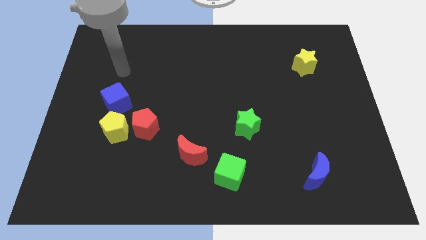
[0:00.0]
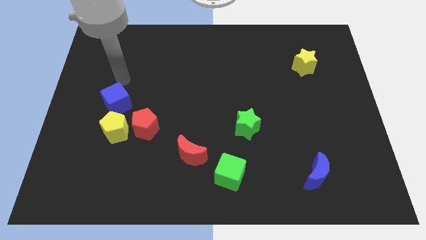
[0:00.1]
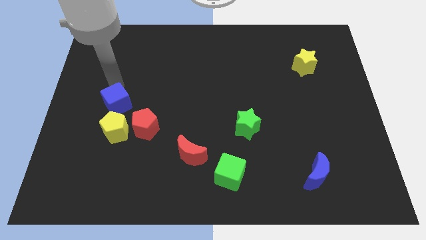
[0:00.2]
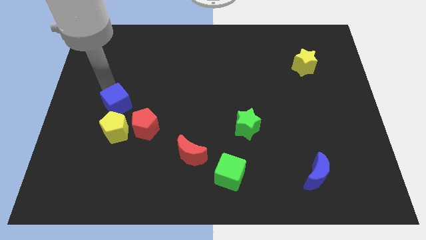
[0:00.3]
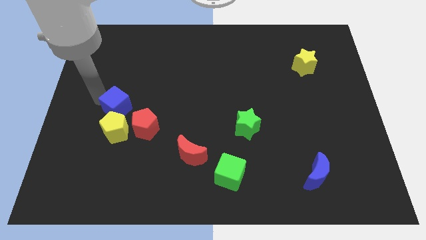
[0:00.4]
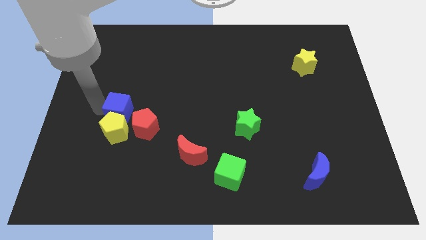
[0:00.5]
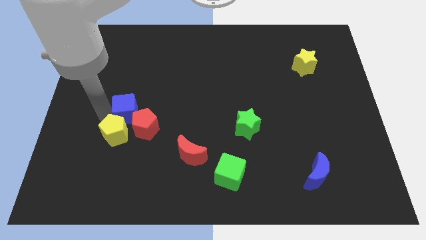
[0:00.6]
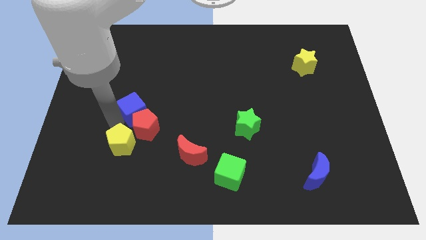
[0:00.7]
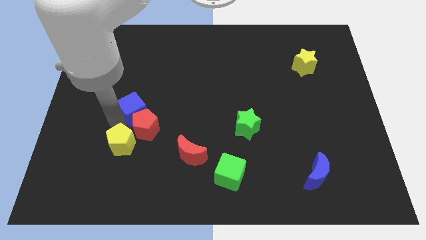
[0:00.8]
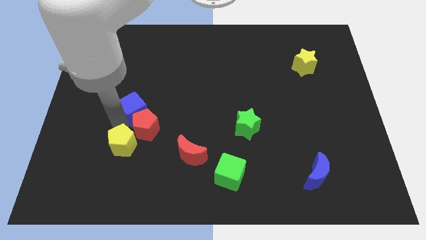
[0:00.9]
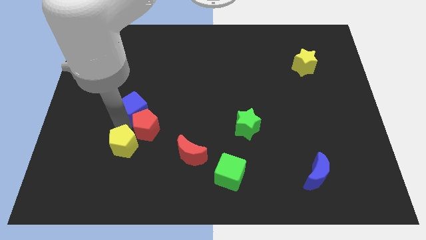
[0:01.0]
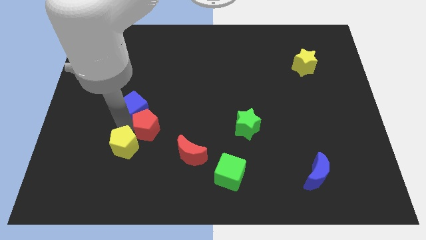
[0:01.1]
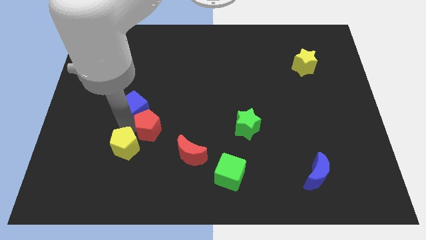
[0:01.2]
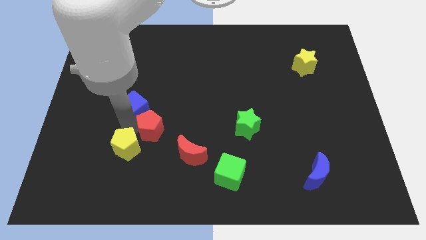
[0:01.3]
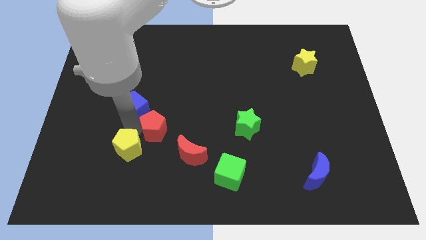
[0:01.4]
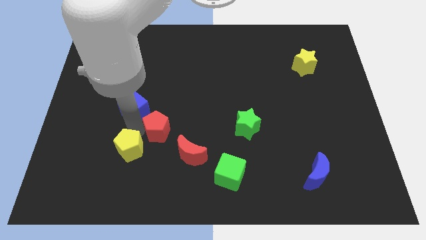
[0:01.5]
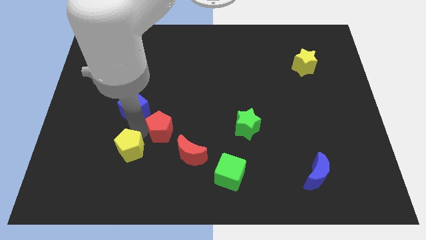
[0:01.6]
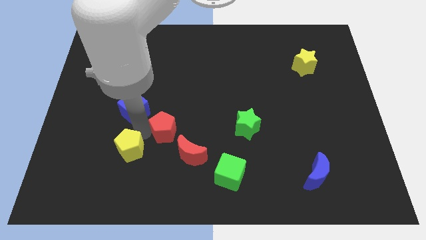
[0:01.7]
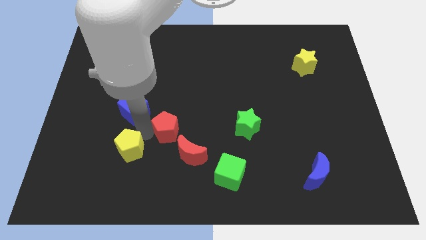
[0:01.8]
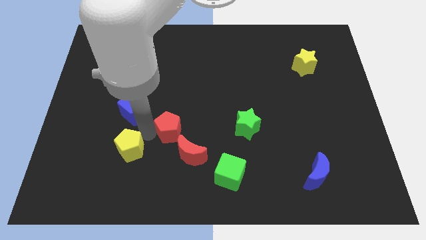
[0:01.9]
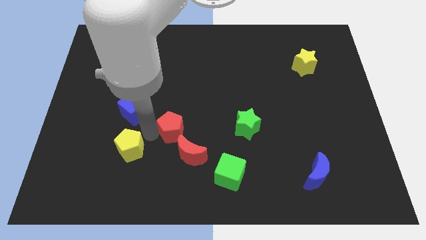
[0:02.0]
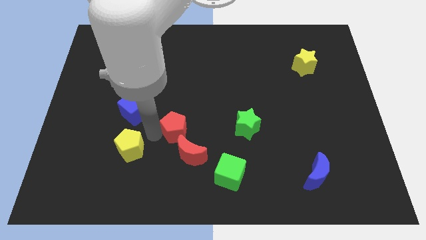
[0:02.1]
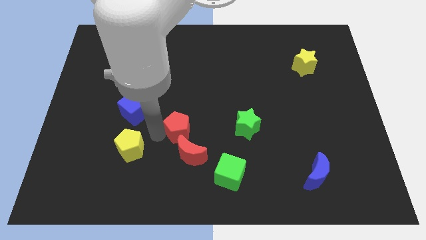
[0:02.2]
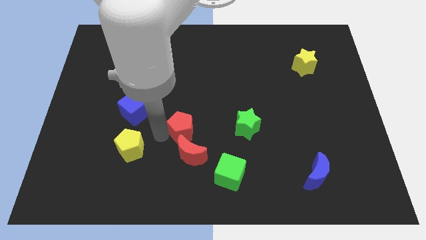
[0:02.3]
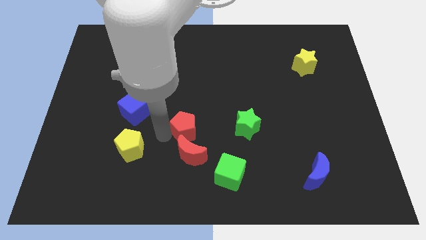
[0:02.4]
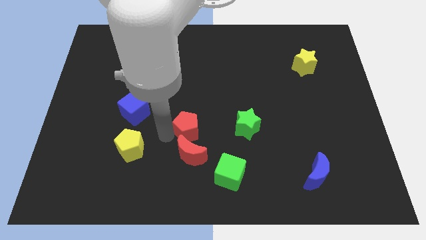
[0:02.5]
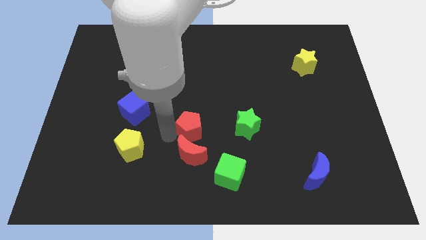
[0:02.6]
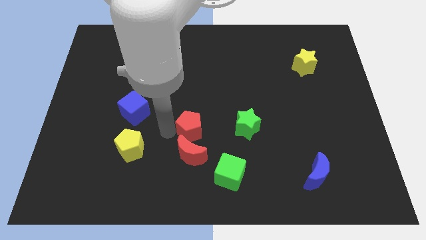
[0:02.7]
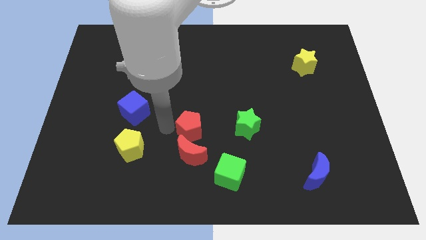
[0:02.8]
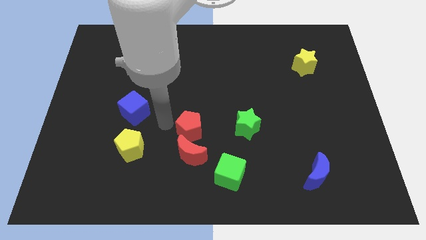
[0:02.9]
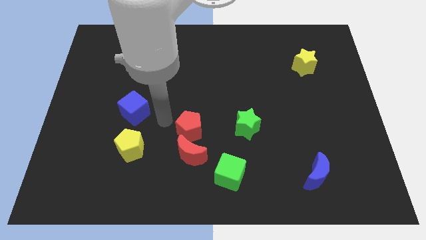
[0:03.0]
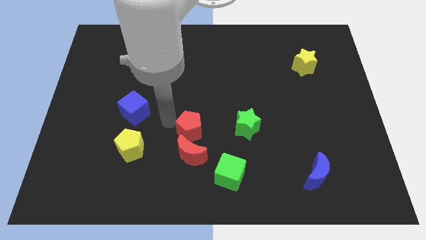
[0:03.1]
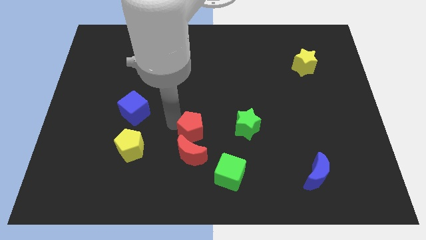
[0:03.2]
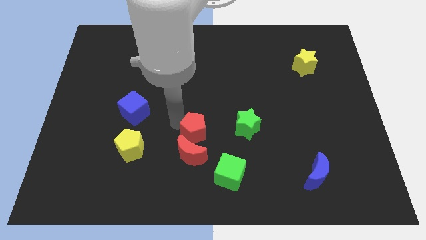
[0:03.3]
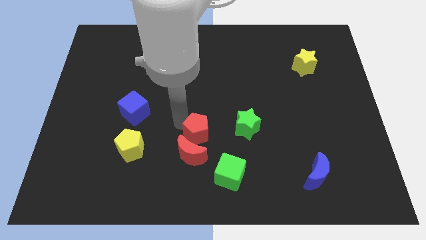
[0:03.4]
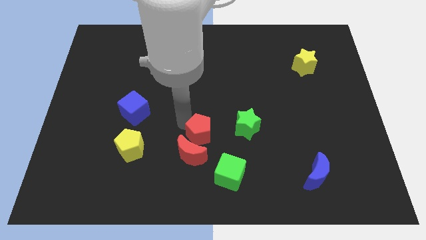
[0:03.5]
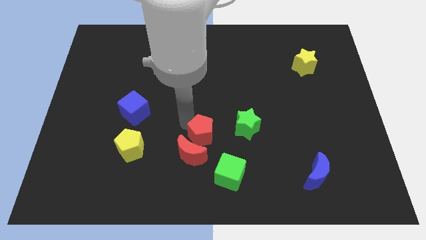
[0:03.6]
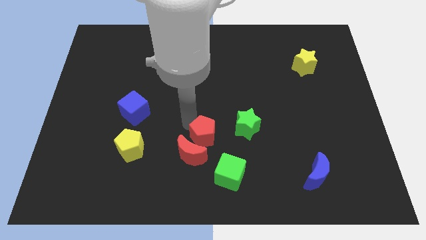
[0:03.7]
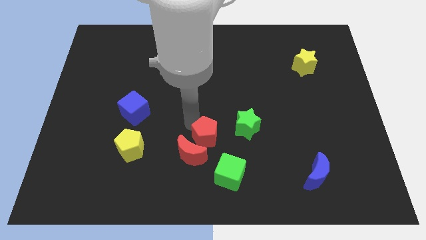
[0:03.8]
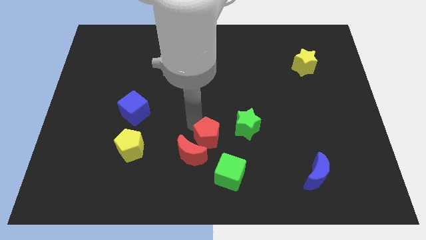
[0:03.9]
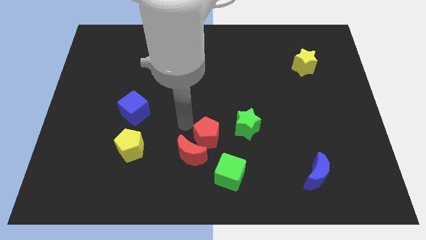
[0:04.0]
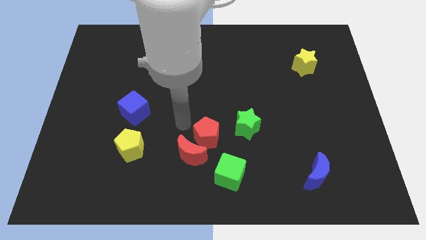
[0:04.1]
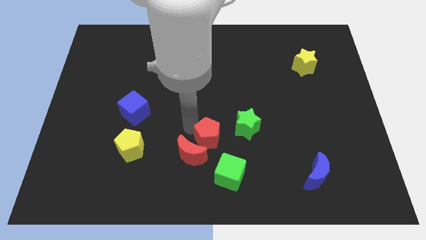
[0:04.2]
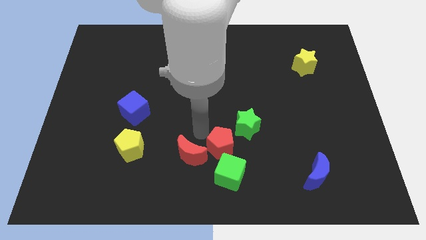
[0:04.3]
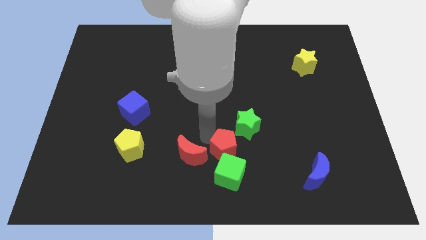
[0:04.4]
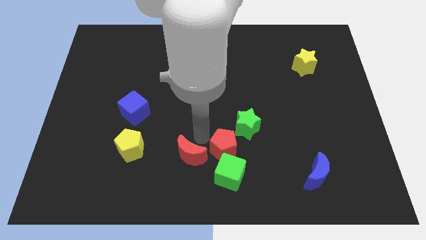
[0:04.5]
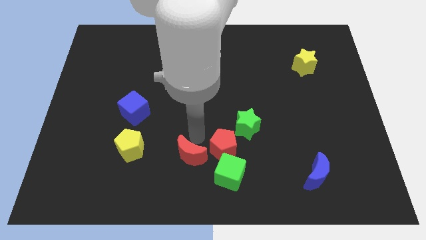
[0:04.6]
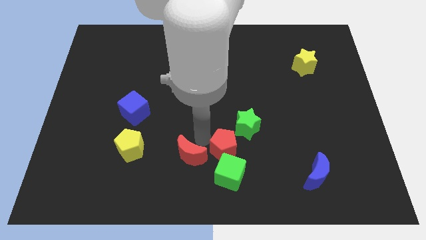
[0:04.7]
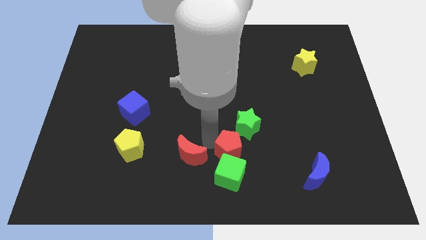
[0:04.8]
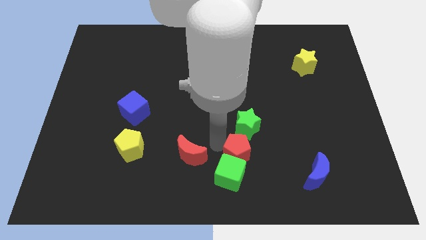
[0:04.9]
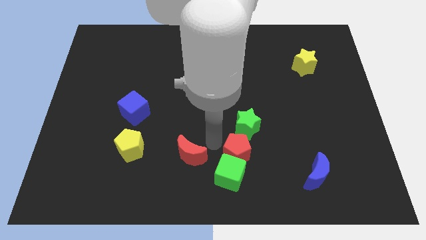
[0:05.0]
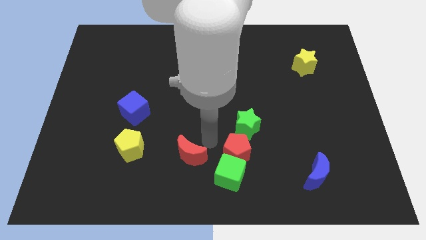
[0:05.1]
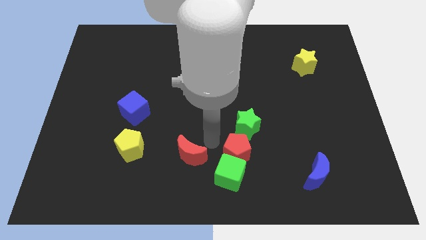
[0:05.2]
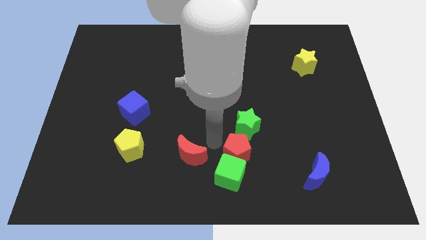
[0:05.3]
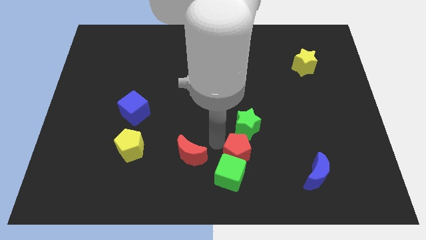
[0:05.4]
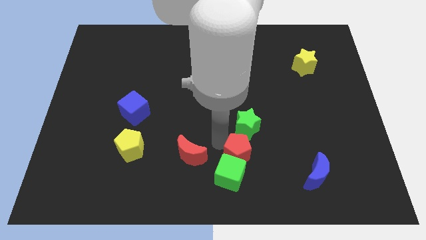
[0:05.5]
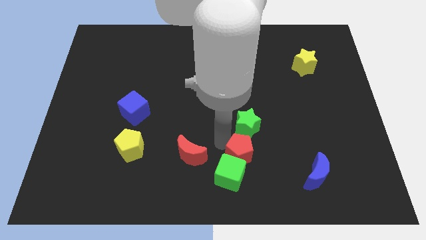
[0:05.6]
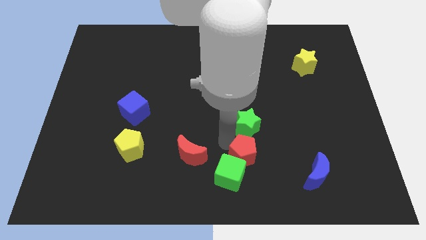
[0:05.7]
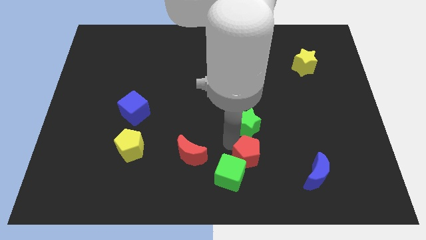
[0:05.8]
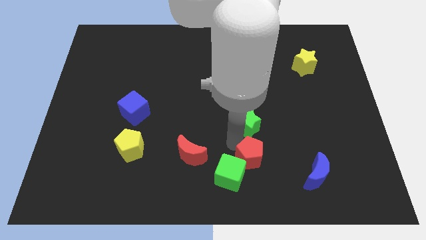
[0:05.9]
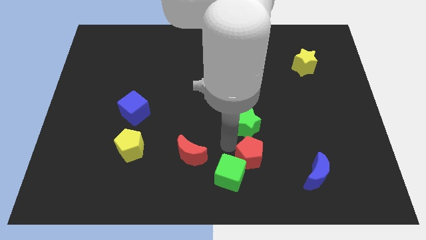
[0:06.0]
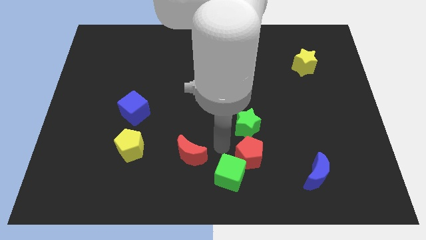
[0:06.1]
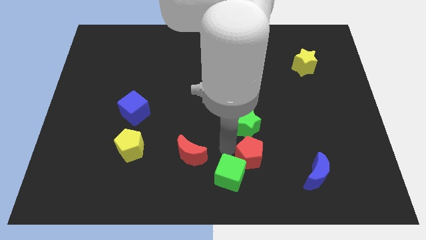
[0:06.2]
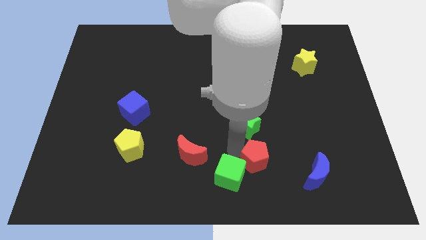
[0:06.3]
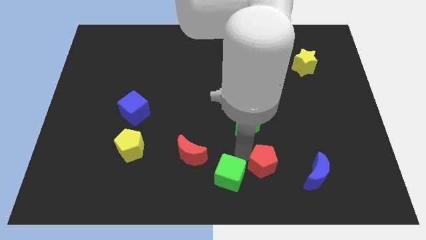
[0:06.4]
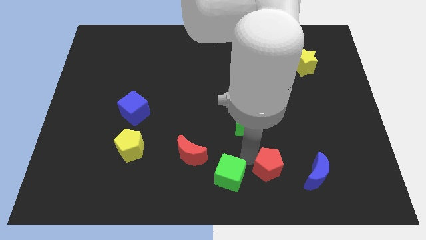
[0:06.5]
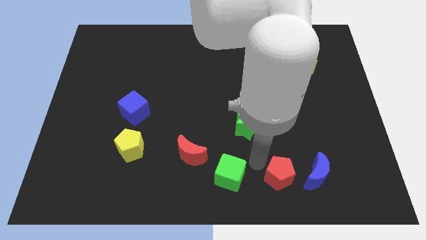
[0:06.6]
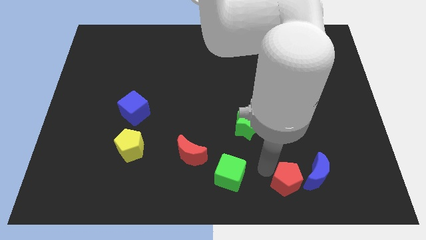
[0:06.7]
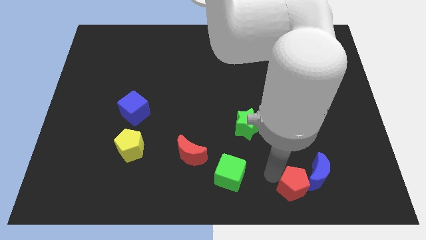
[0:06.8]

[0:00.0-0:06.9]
move the red pentagon next to the blue moon

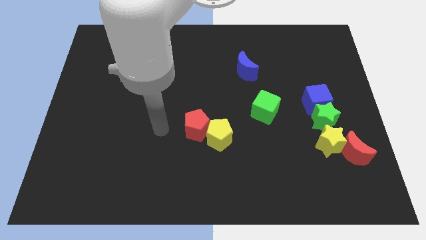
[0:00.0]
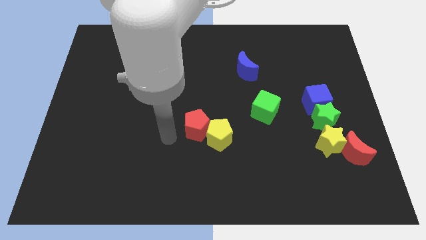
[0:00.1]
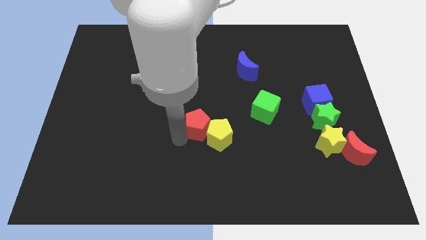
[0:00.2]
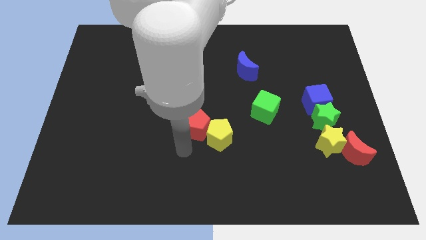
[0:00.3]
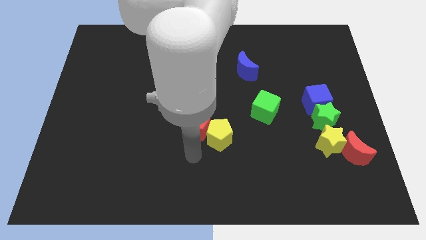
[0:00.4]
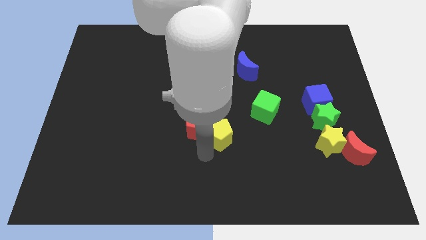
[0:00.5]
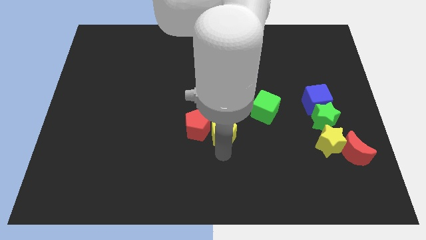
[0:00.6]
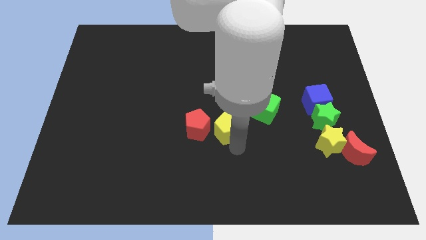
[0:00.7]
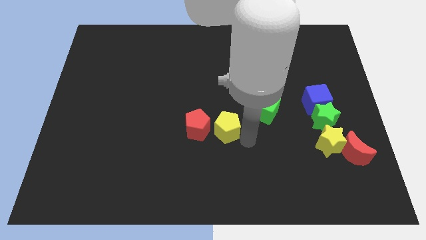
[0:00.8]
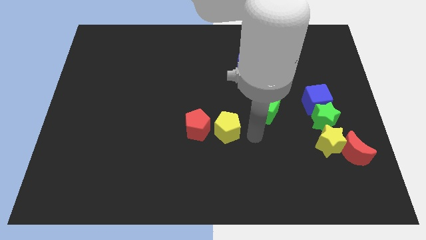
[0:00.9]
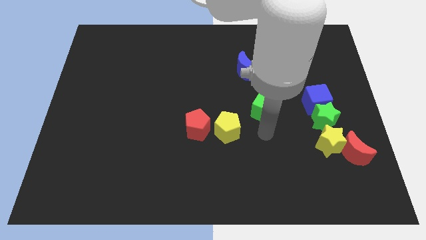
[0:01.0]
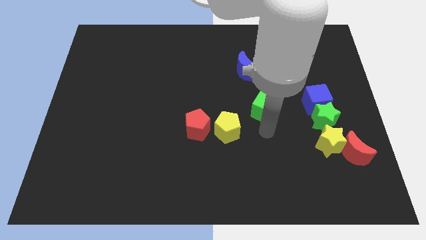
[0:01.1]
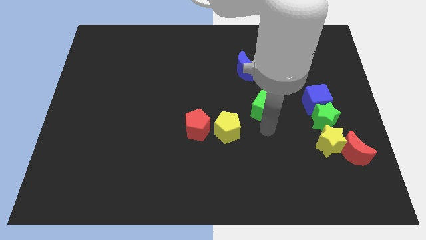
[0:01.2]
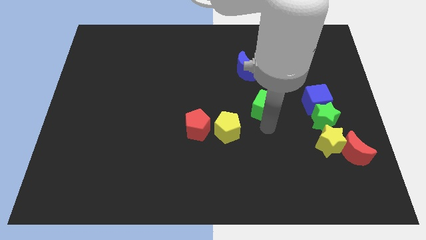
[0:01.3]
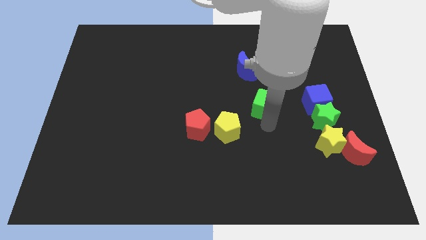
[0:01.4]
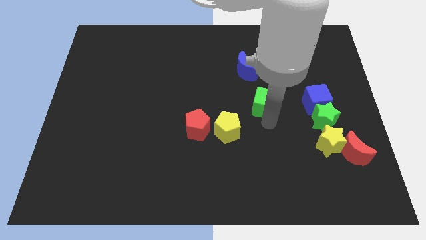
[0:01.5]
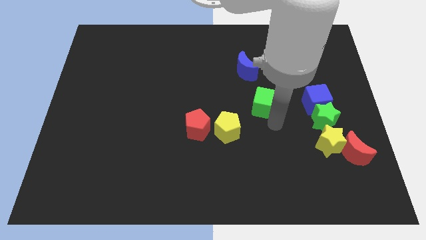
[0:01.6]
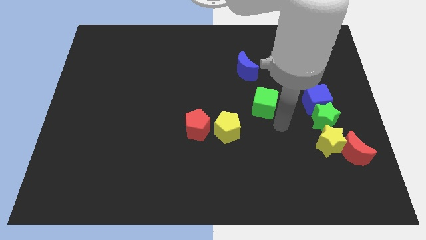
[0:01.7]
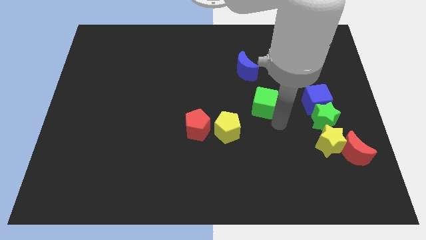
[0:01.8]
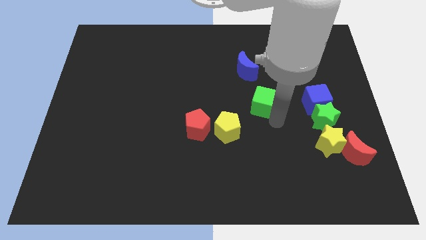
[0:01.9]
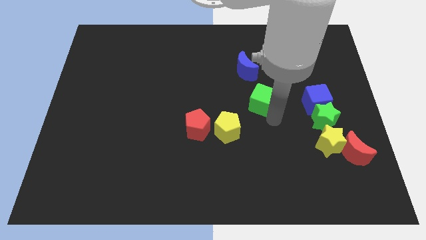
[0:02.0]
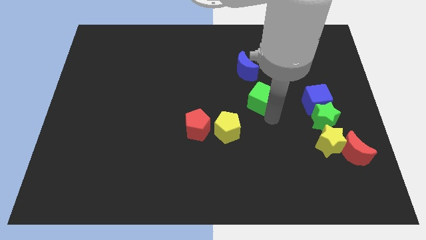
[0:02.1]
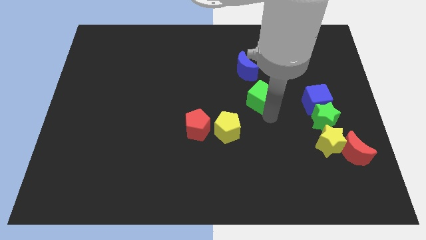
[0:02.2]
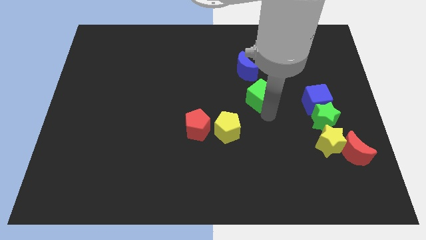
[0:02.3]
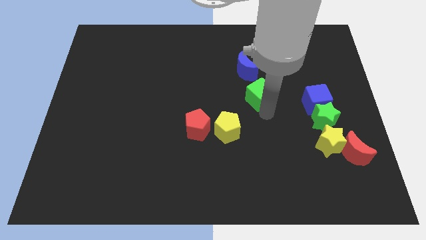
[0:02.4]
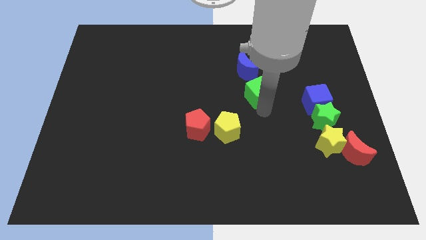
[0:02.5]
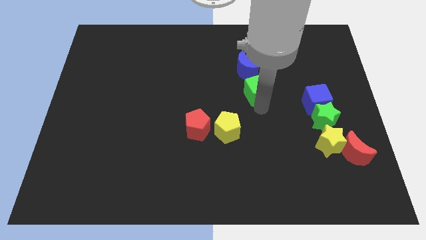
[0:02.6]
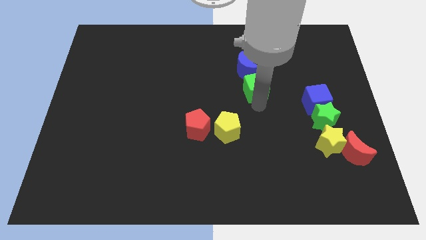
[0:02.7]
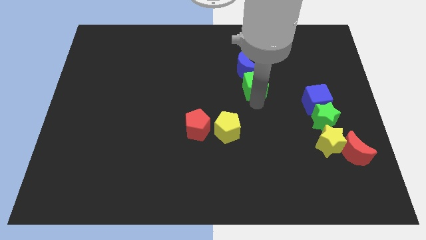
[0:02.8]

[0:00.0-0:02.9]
put the green cube to the blue moon
